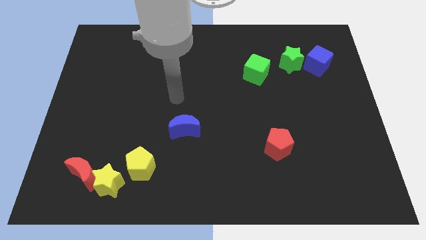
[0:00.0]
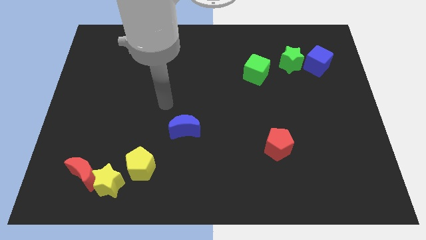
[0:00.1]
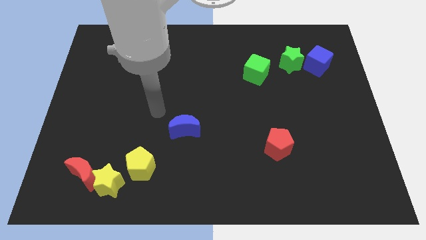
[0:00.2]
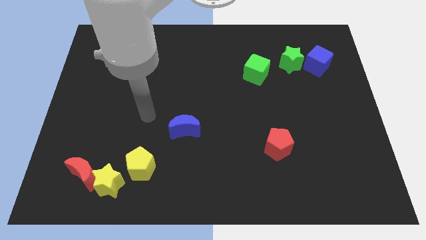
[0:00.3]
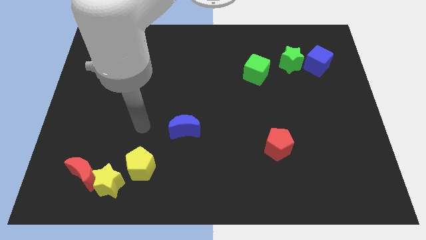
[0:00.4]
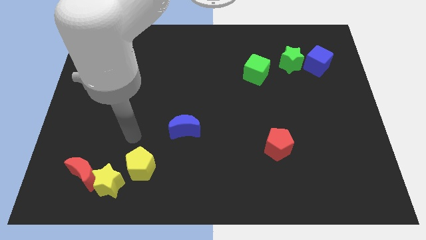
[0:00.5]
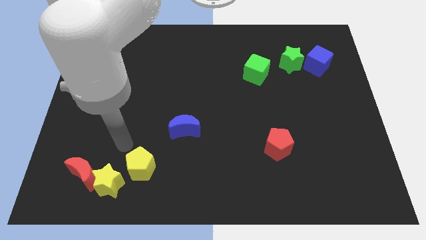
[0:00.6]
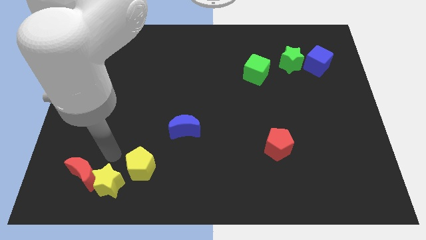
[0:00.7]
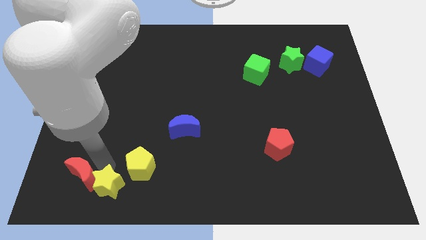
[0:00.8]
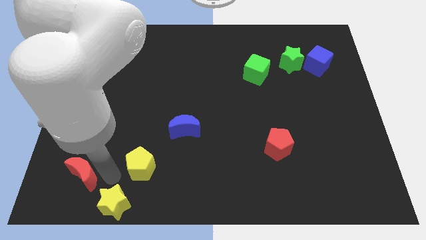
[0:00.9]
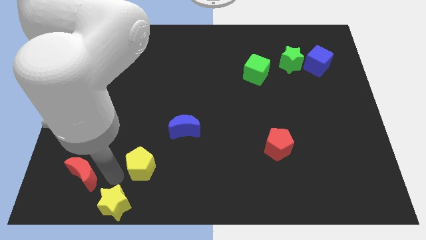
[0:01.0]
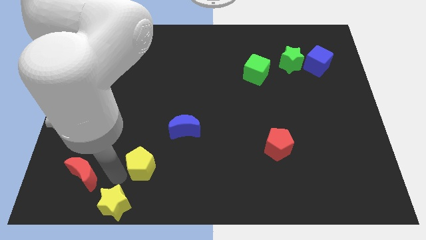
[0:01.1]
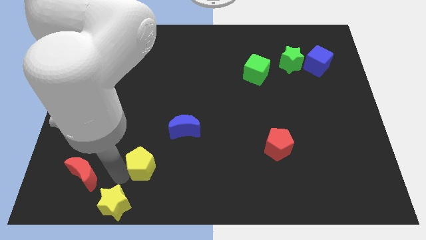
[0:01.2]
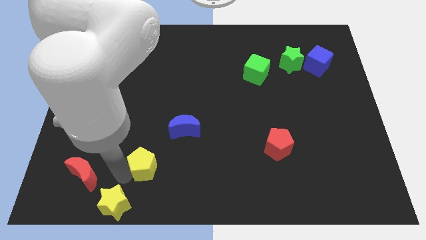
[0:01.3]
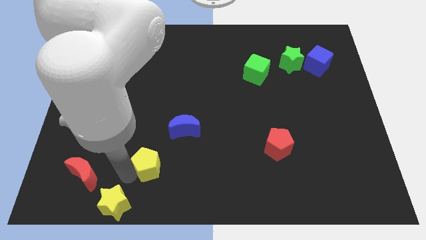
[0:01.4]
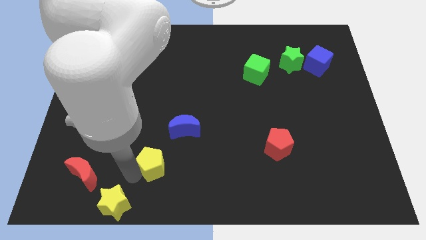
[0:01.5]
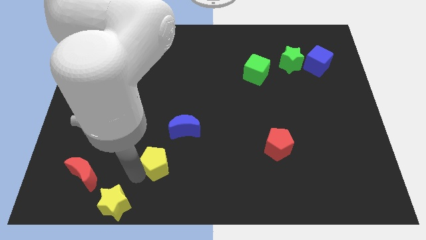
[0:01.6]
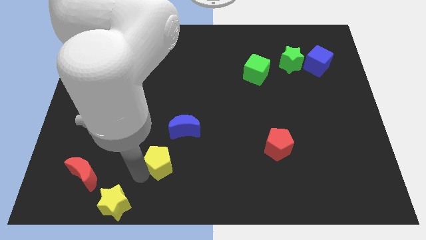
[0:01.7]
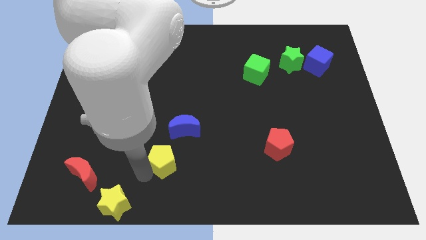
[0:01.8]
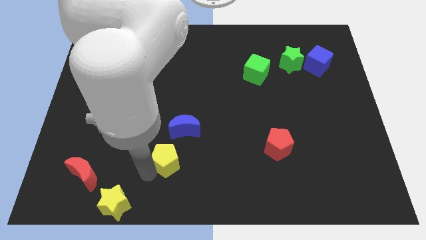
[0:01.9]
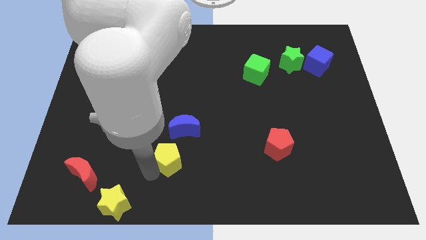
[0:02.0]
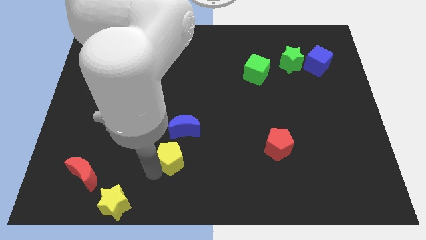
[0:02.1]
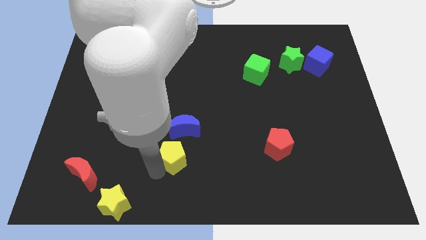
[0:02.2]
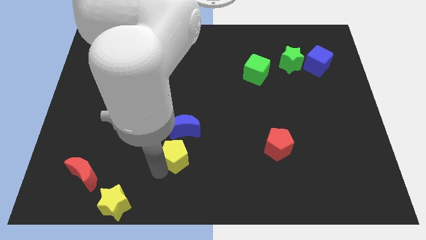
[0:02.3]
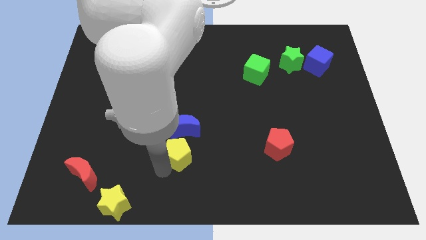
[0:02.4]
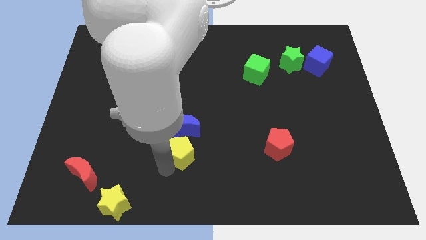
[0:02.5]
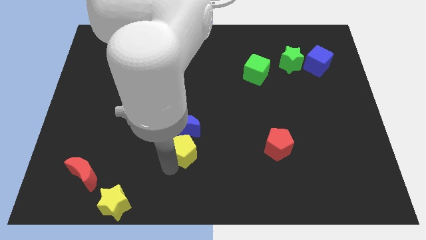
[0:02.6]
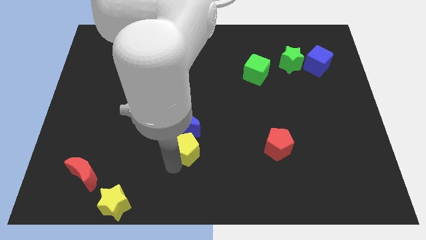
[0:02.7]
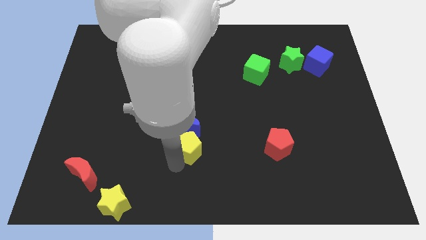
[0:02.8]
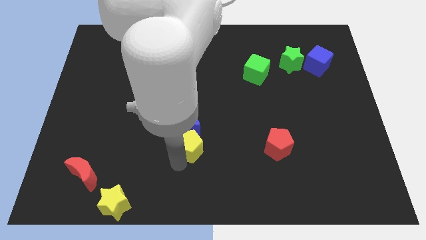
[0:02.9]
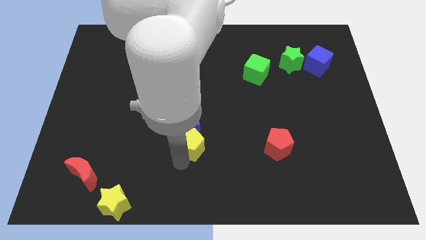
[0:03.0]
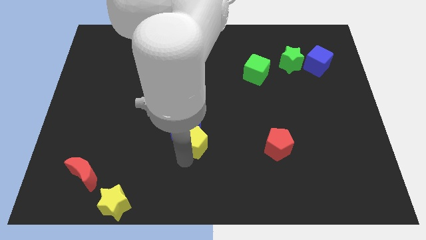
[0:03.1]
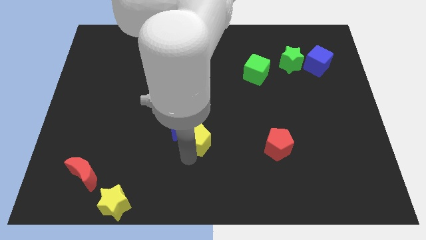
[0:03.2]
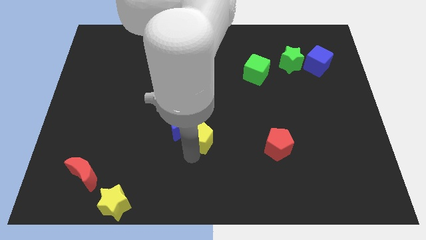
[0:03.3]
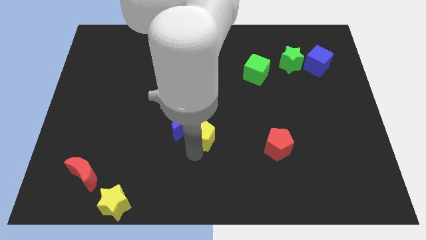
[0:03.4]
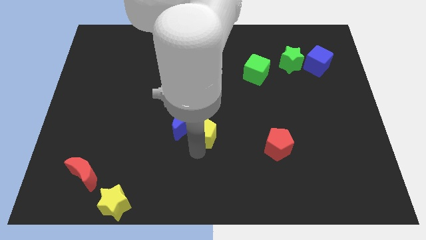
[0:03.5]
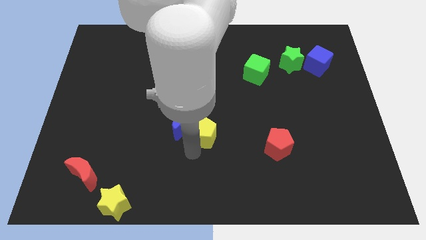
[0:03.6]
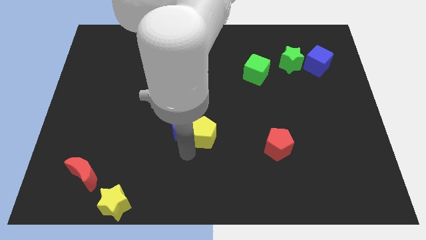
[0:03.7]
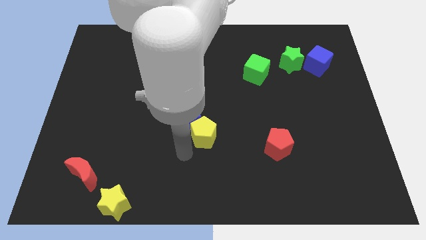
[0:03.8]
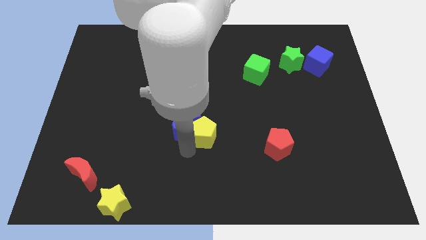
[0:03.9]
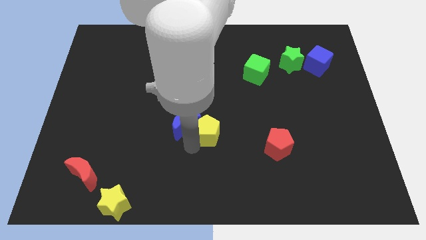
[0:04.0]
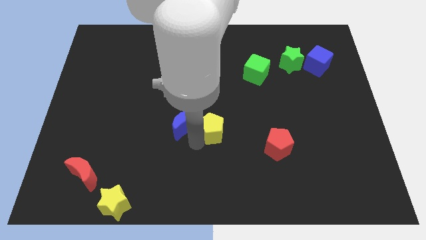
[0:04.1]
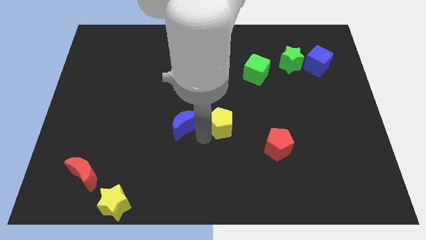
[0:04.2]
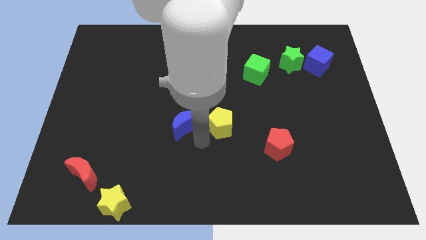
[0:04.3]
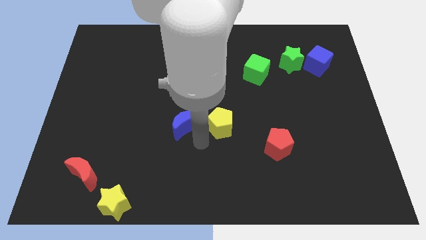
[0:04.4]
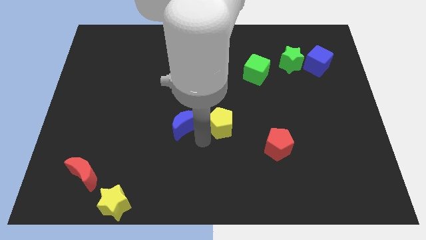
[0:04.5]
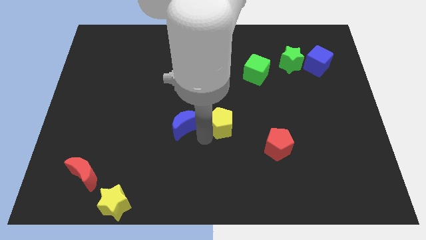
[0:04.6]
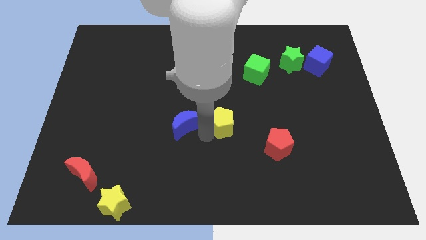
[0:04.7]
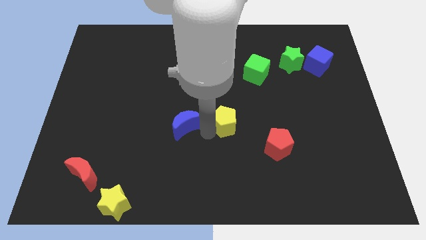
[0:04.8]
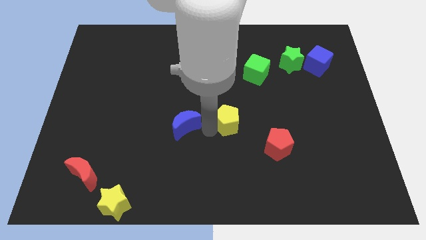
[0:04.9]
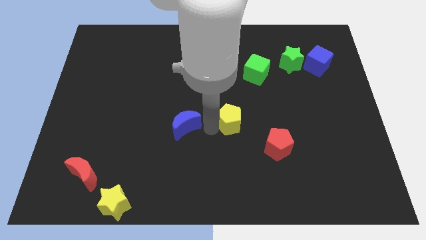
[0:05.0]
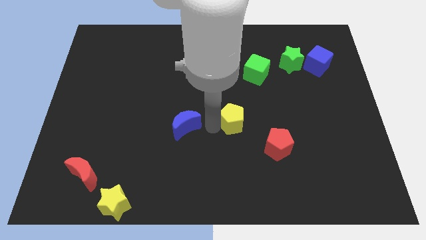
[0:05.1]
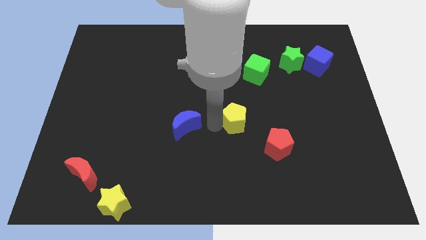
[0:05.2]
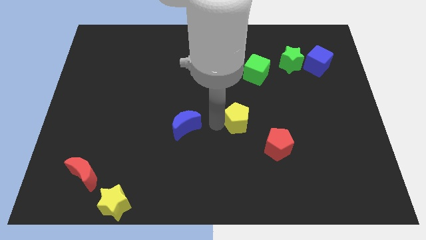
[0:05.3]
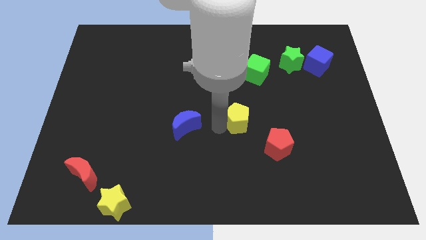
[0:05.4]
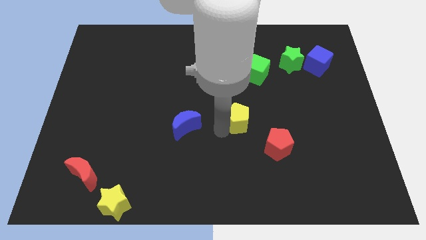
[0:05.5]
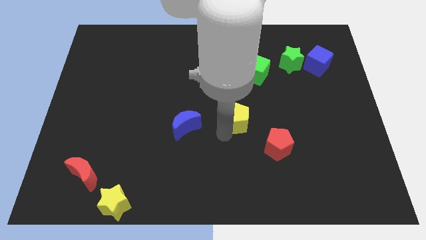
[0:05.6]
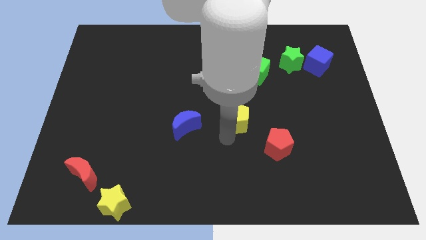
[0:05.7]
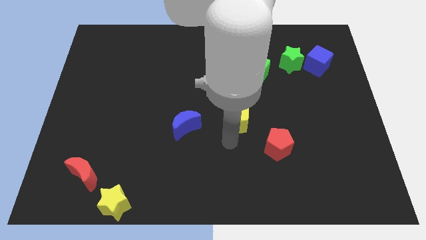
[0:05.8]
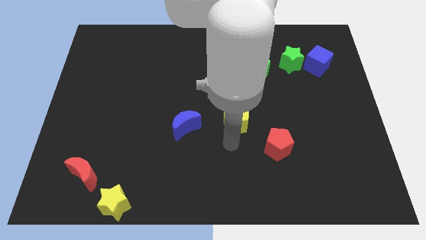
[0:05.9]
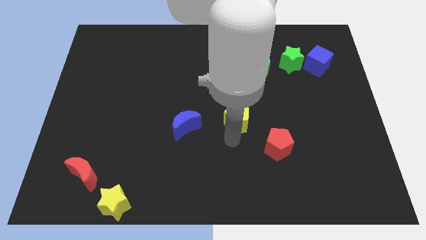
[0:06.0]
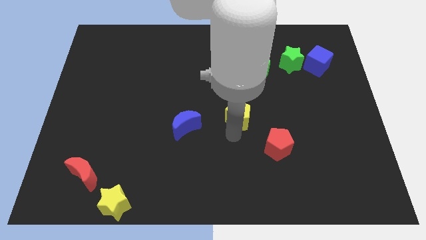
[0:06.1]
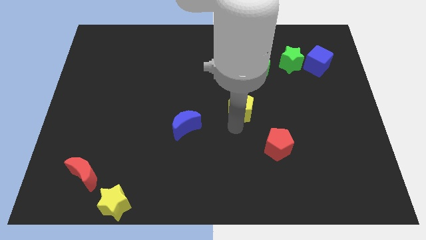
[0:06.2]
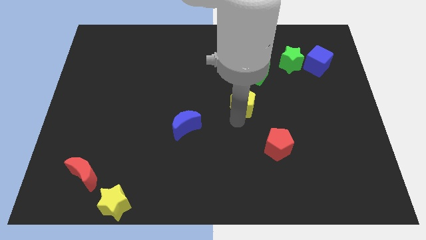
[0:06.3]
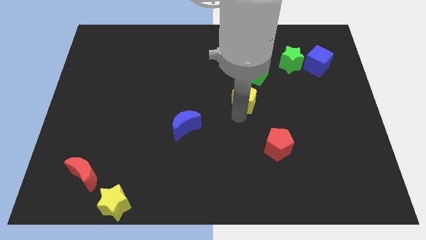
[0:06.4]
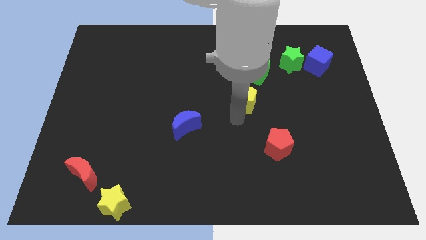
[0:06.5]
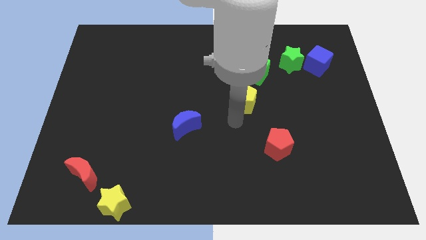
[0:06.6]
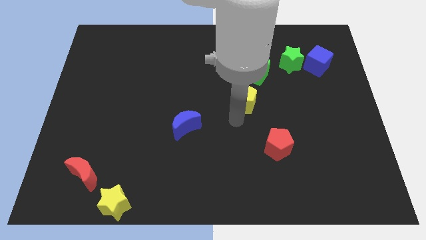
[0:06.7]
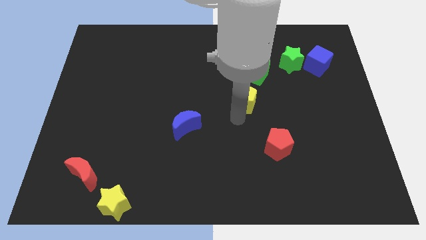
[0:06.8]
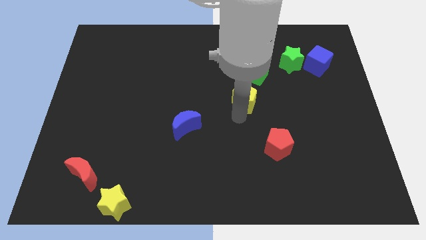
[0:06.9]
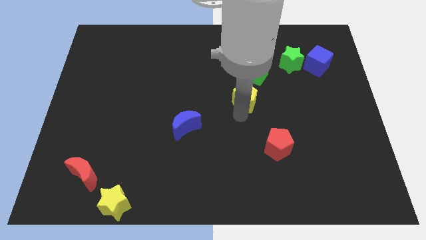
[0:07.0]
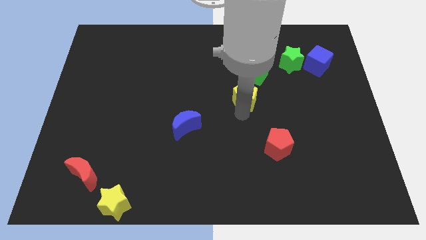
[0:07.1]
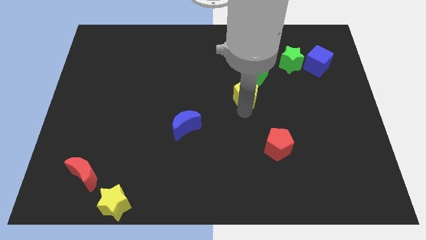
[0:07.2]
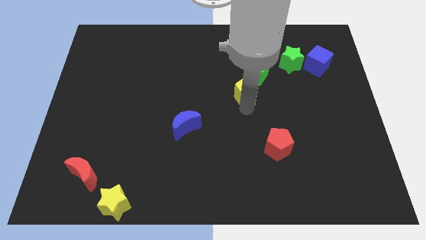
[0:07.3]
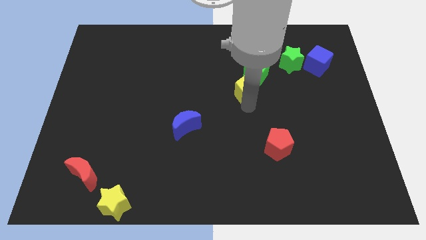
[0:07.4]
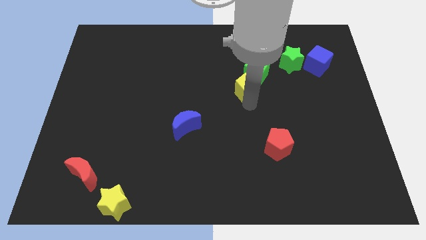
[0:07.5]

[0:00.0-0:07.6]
slide the yellow pentagon towards the green cube
